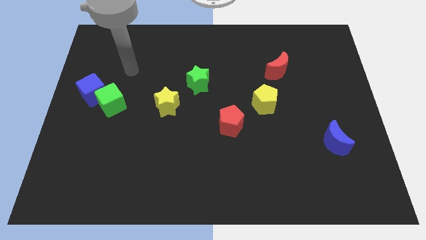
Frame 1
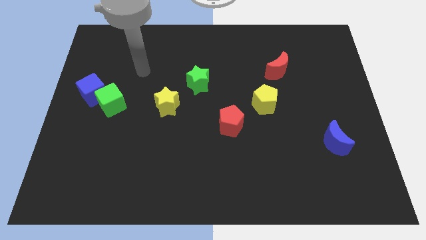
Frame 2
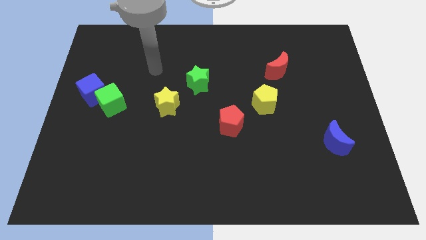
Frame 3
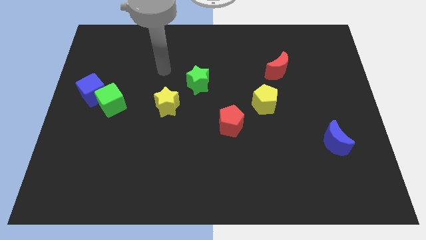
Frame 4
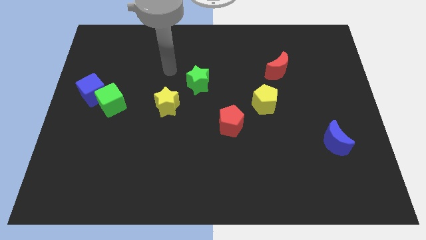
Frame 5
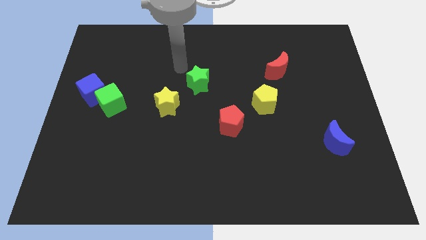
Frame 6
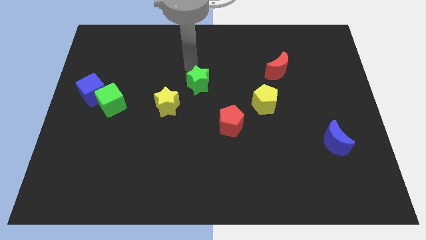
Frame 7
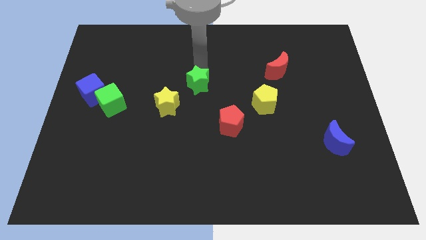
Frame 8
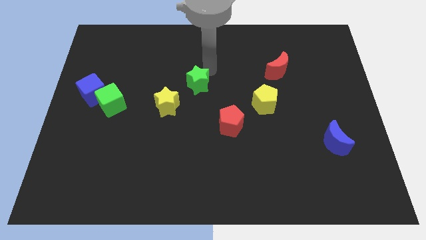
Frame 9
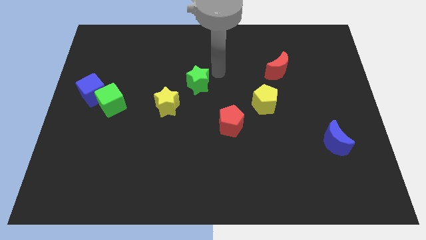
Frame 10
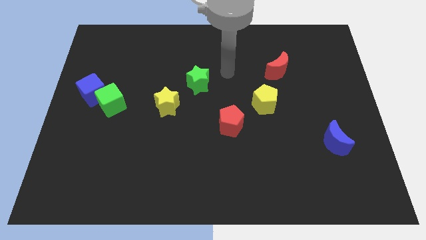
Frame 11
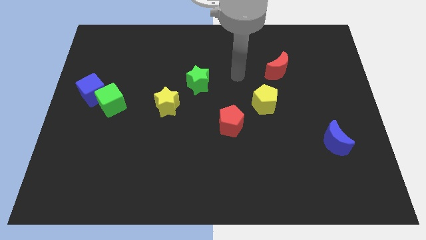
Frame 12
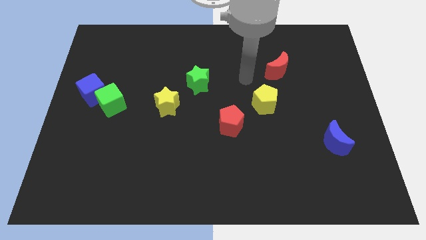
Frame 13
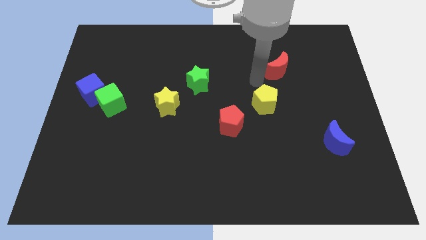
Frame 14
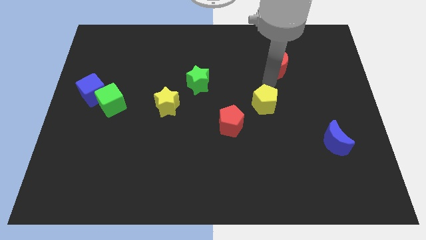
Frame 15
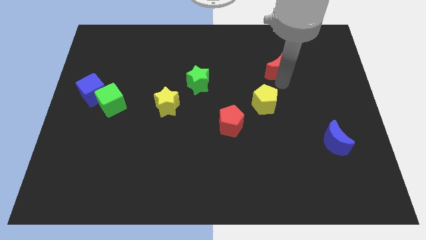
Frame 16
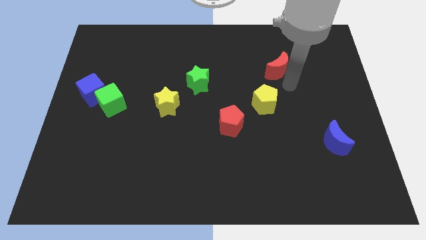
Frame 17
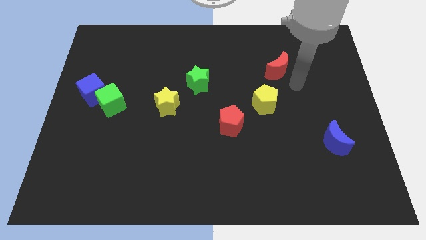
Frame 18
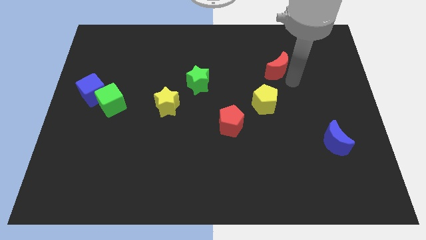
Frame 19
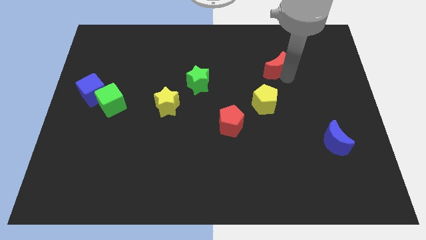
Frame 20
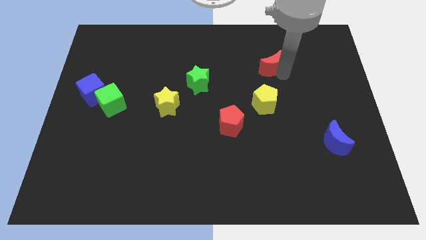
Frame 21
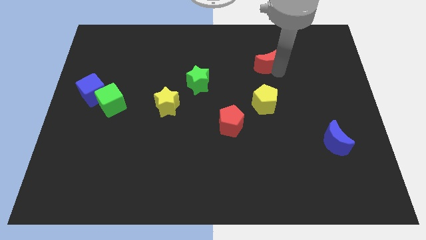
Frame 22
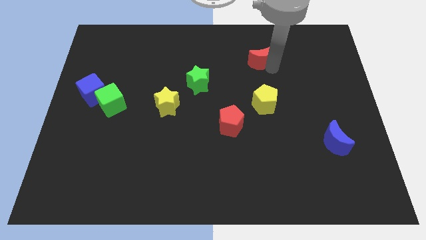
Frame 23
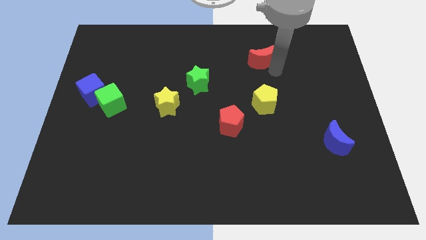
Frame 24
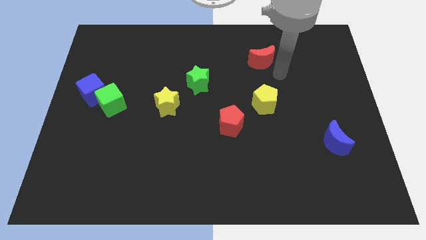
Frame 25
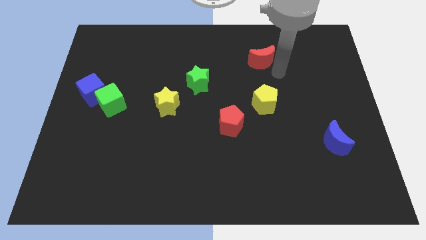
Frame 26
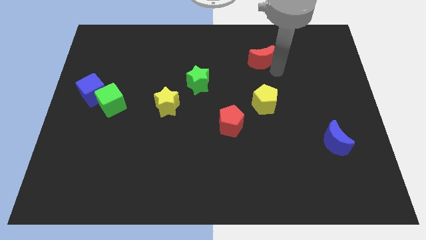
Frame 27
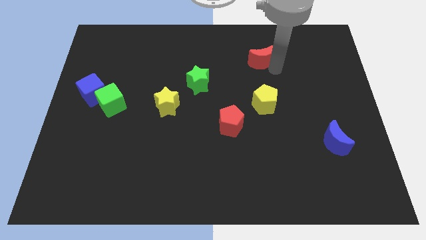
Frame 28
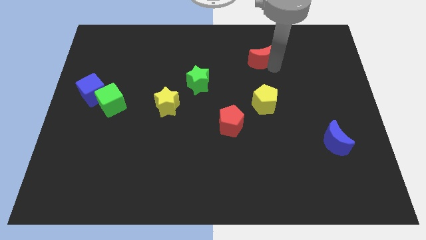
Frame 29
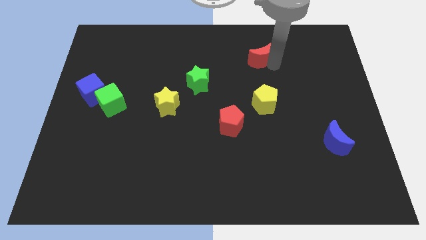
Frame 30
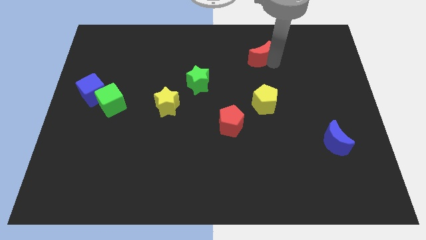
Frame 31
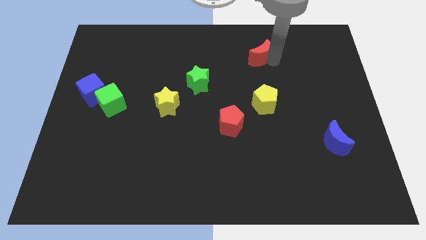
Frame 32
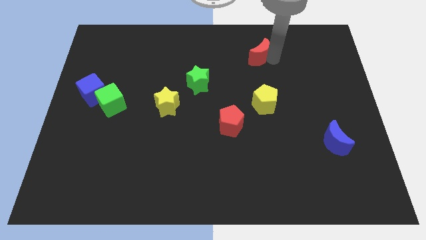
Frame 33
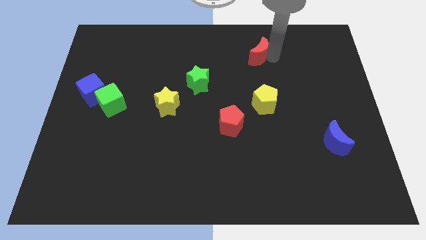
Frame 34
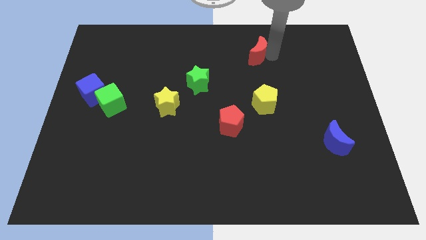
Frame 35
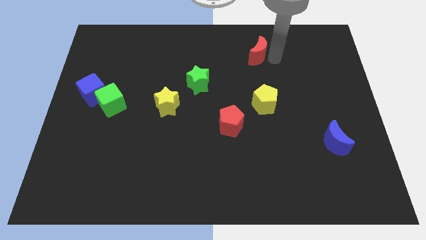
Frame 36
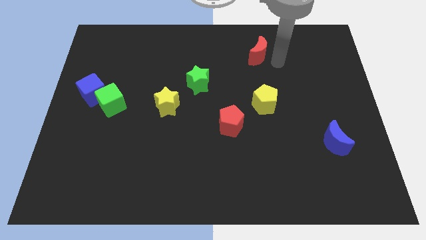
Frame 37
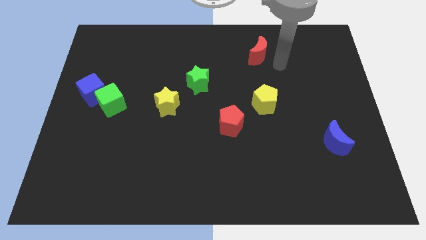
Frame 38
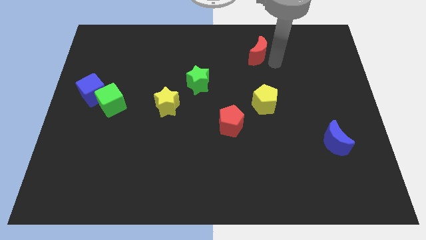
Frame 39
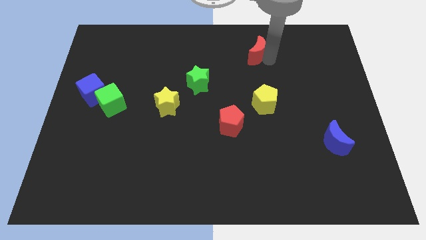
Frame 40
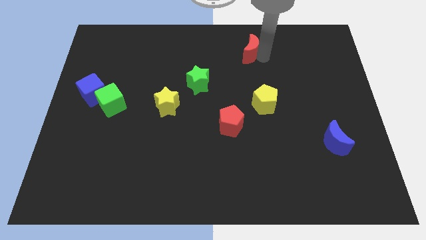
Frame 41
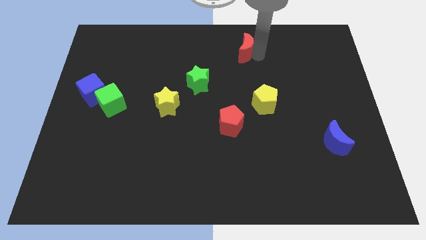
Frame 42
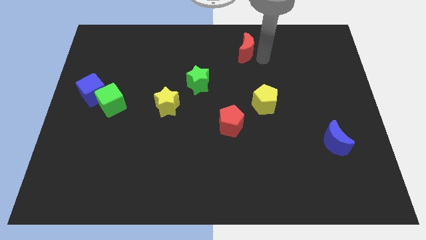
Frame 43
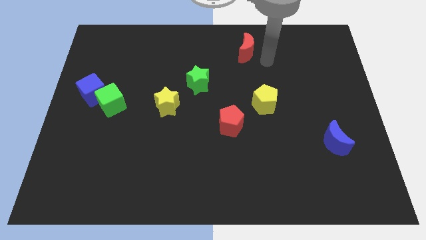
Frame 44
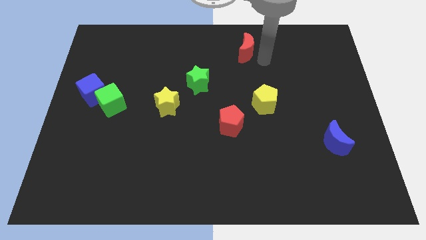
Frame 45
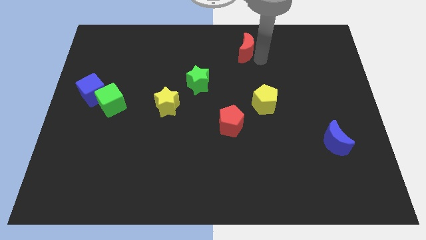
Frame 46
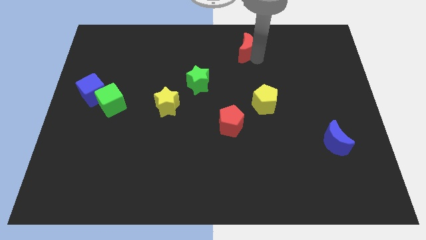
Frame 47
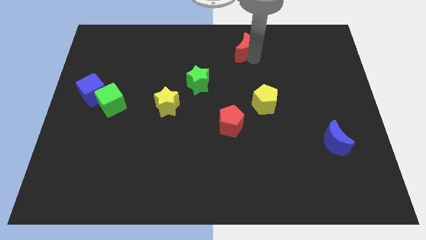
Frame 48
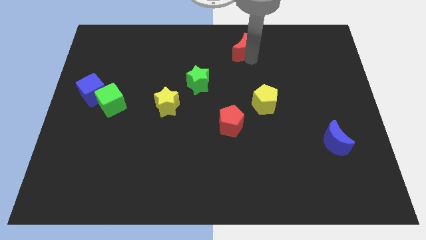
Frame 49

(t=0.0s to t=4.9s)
move the red moon to the top

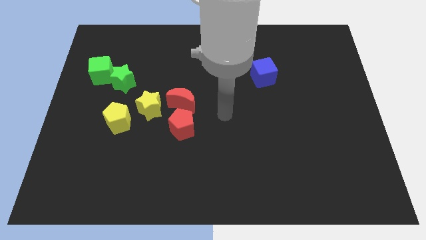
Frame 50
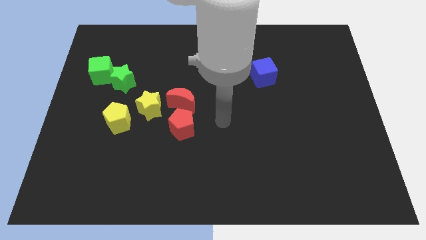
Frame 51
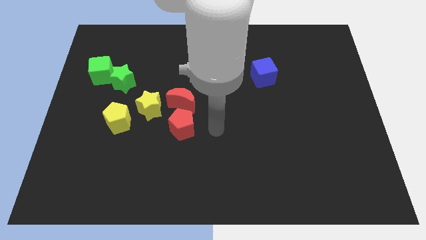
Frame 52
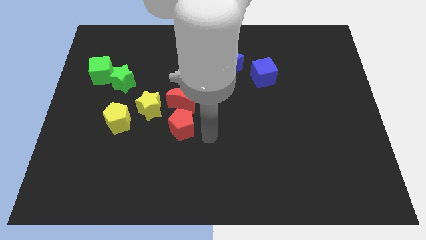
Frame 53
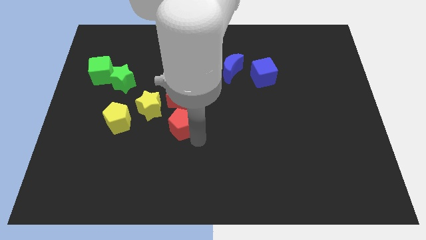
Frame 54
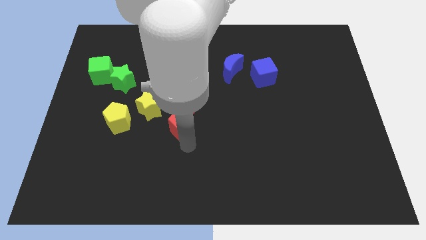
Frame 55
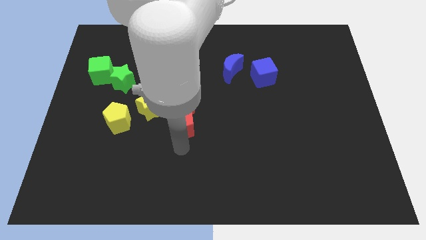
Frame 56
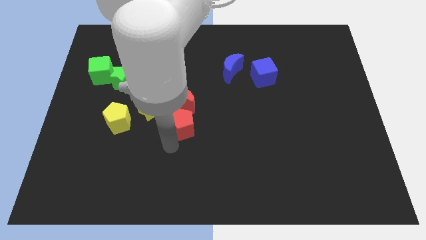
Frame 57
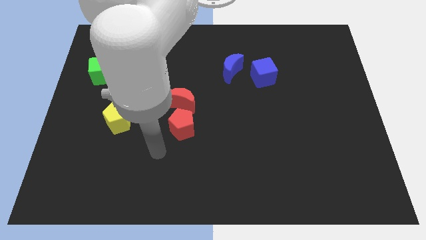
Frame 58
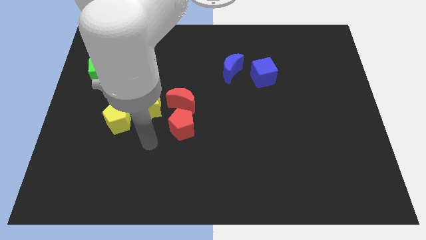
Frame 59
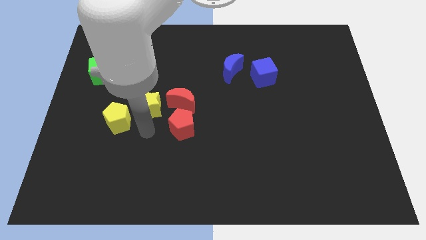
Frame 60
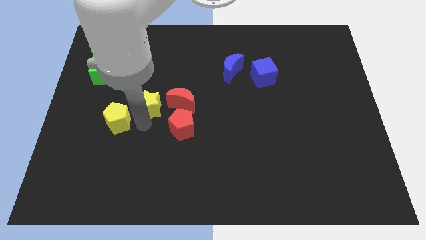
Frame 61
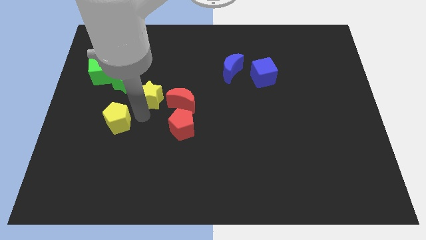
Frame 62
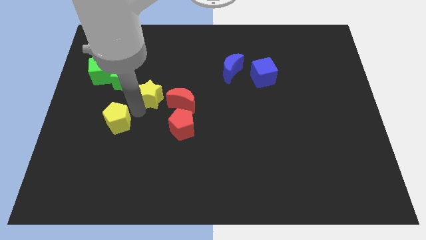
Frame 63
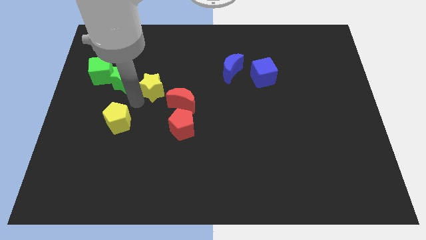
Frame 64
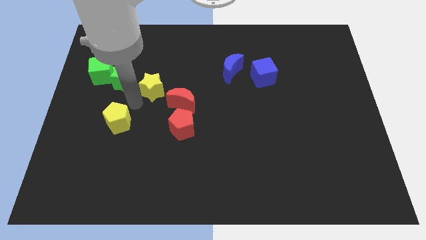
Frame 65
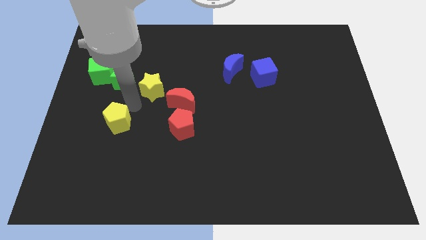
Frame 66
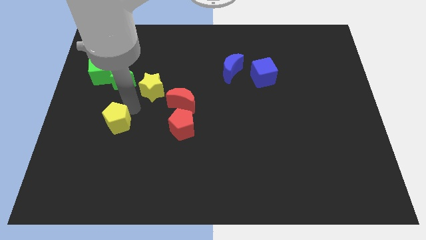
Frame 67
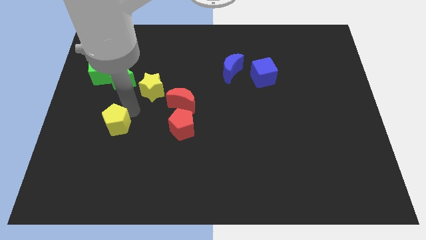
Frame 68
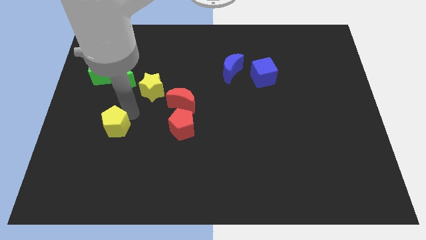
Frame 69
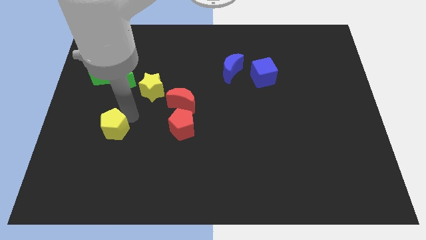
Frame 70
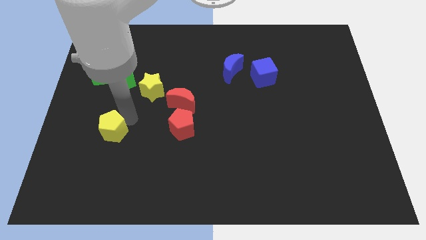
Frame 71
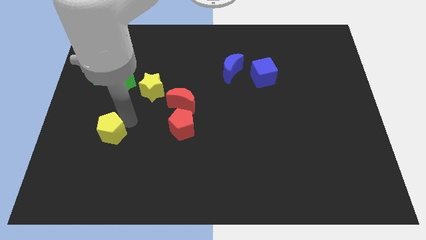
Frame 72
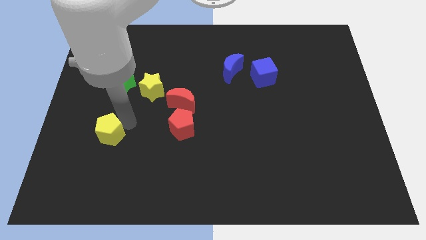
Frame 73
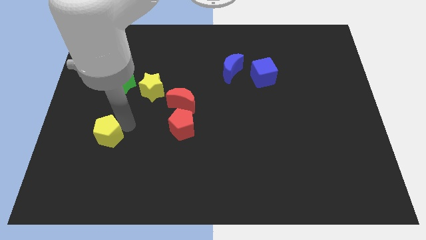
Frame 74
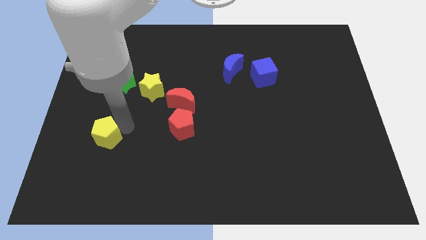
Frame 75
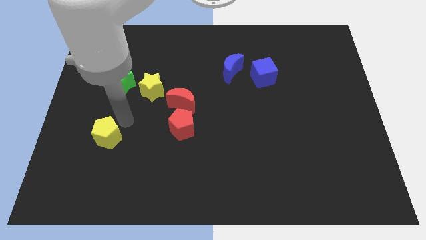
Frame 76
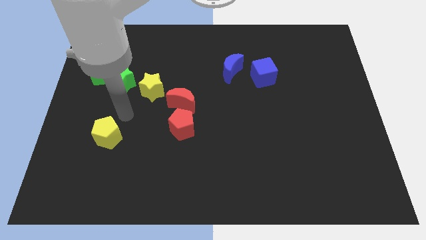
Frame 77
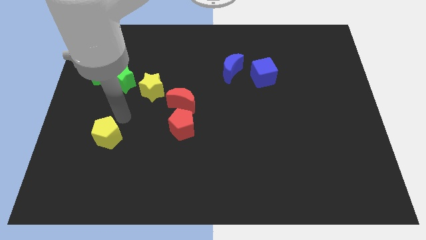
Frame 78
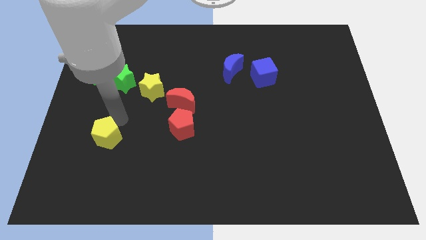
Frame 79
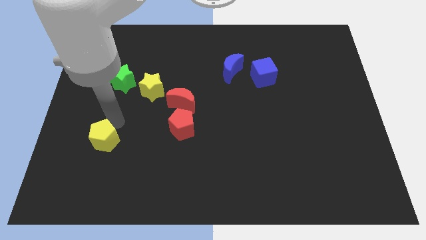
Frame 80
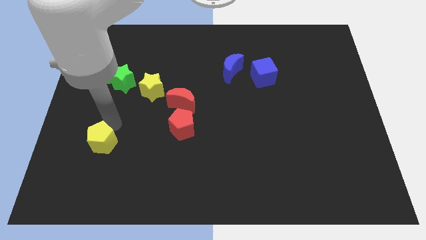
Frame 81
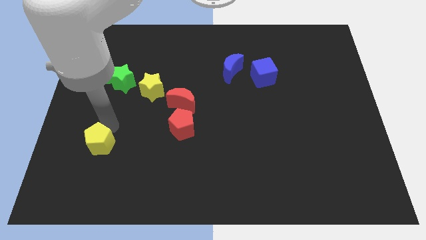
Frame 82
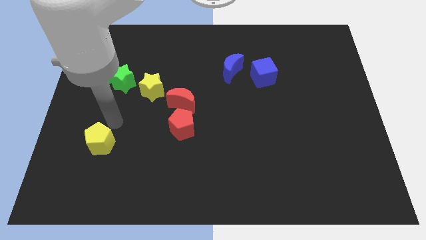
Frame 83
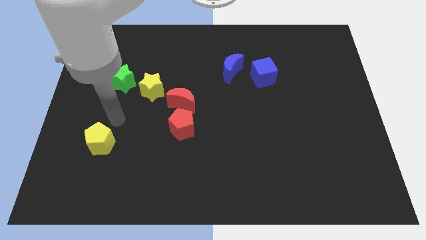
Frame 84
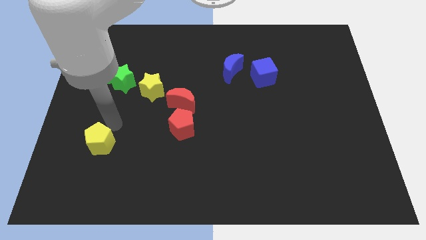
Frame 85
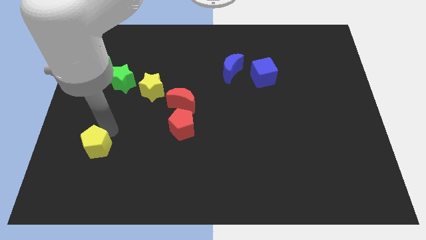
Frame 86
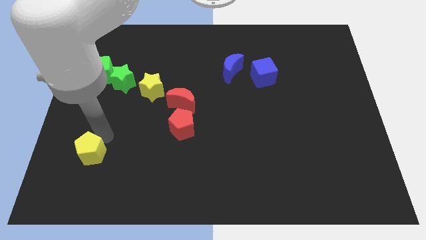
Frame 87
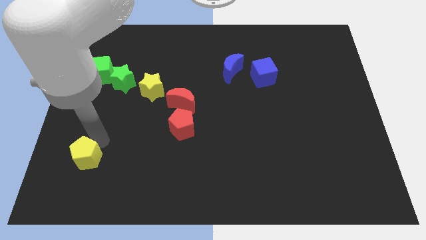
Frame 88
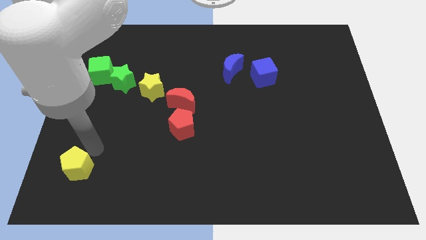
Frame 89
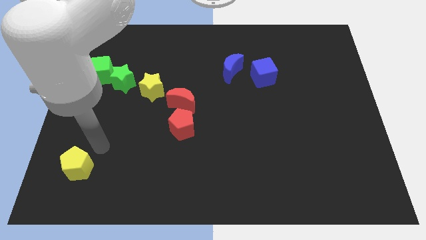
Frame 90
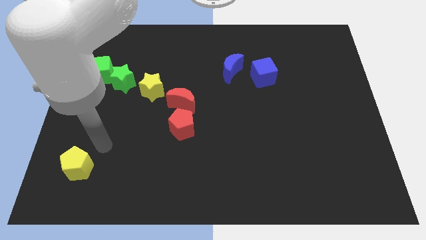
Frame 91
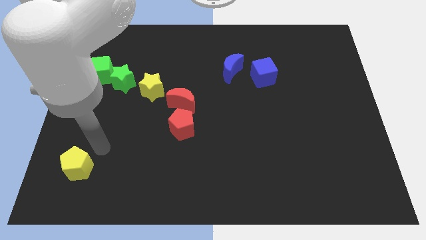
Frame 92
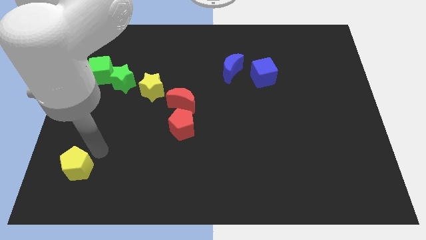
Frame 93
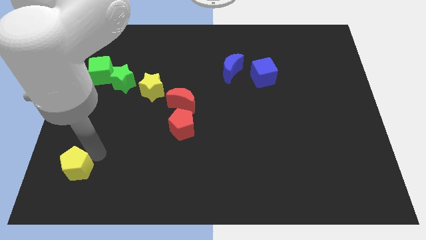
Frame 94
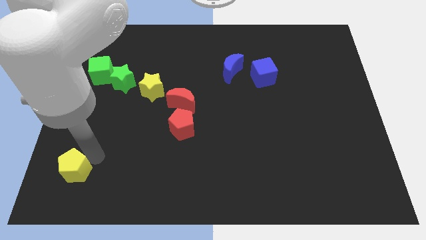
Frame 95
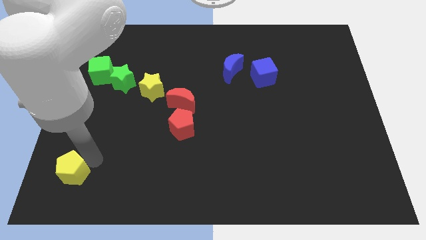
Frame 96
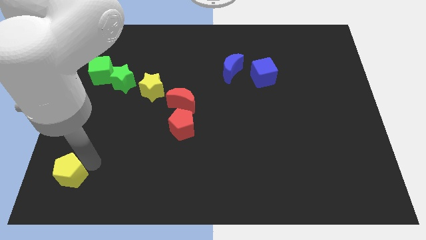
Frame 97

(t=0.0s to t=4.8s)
put the yellow pentagon to the lower left corner
